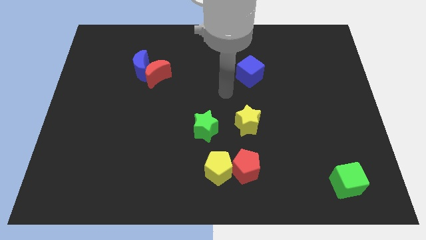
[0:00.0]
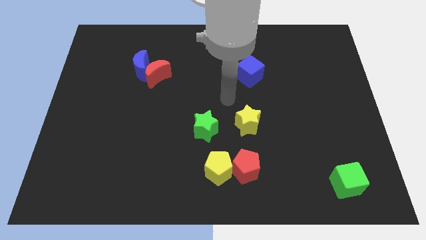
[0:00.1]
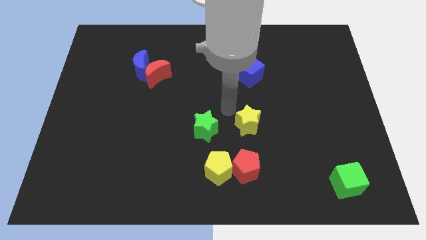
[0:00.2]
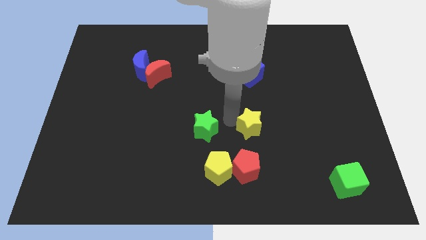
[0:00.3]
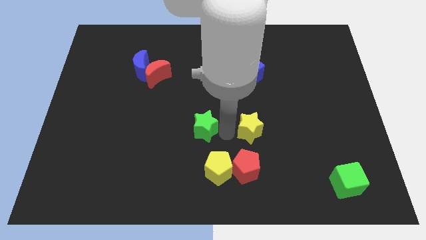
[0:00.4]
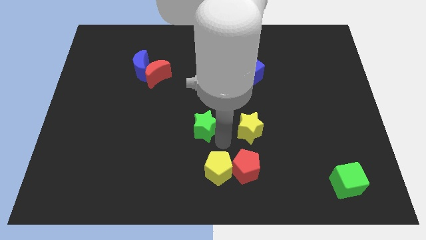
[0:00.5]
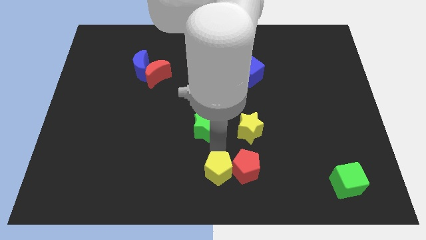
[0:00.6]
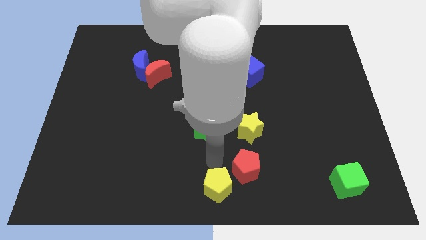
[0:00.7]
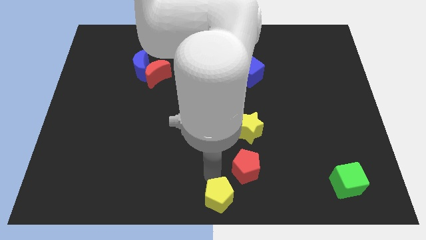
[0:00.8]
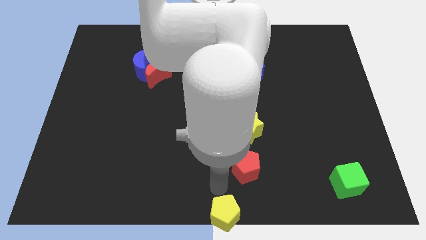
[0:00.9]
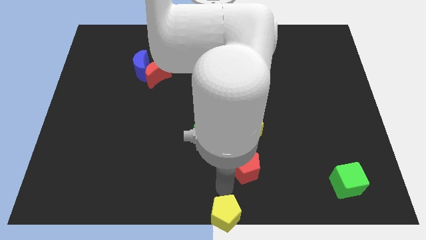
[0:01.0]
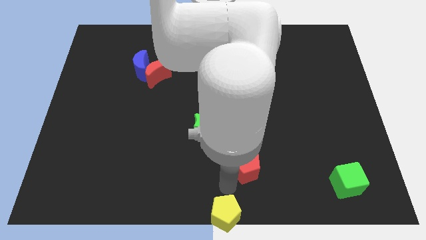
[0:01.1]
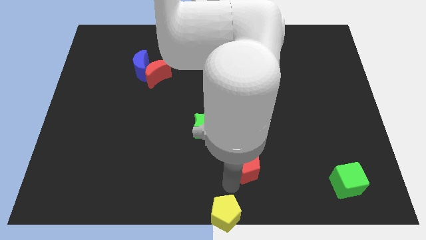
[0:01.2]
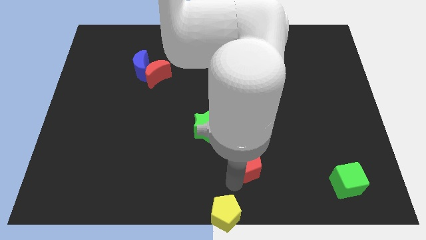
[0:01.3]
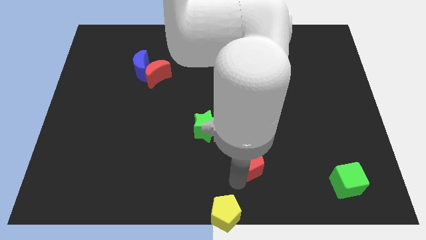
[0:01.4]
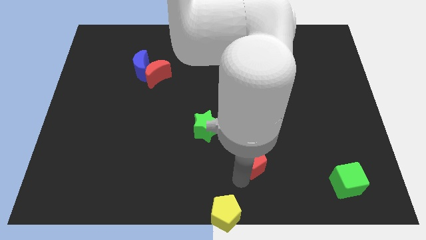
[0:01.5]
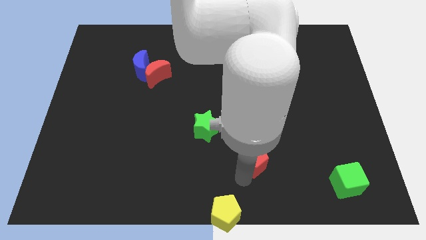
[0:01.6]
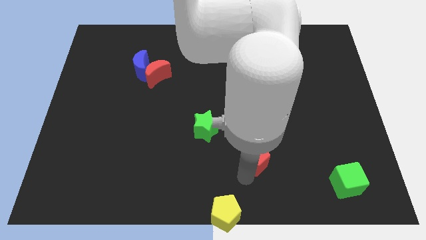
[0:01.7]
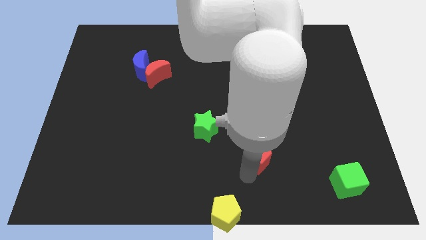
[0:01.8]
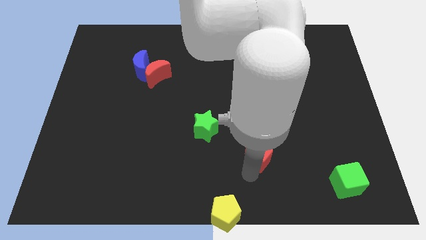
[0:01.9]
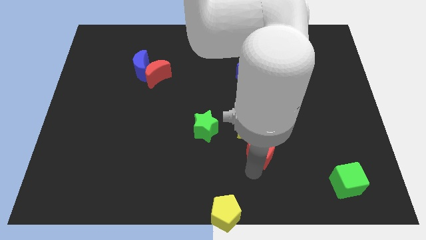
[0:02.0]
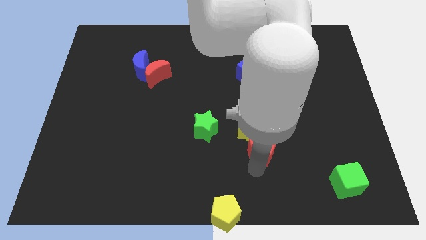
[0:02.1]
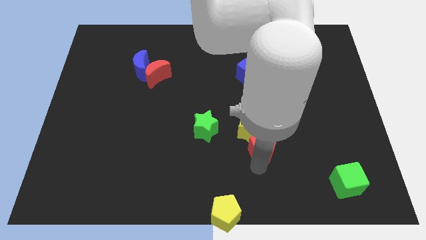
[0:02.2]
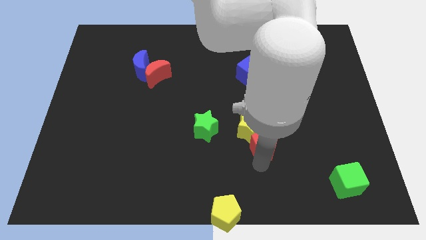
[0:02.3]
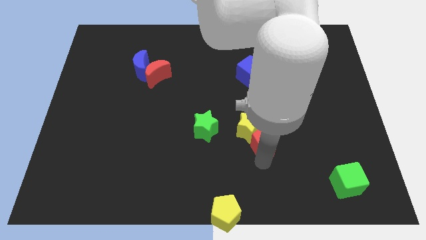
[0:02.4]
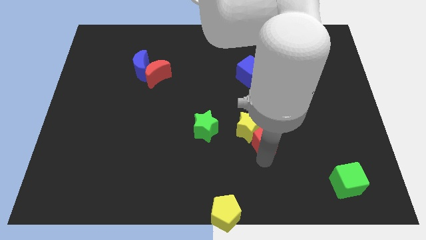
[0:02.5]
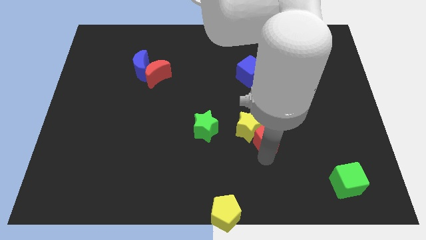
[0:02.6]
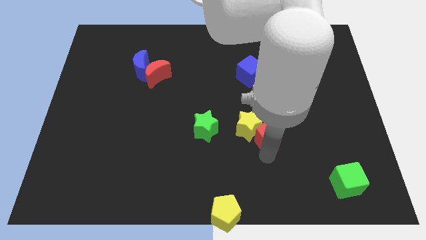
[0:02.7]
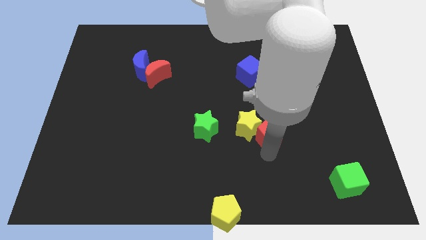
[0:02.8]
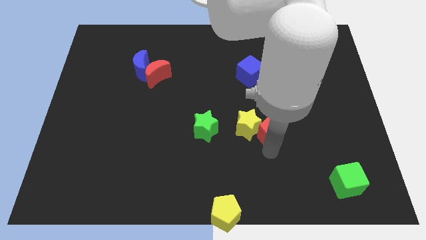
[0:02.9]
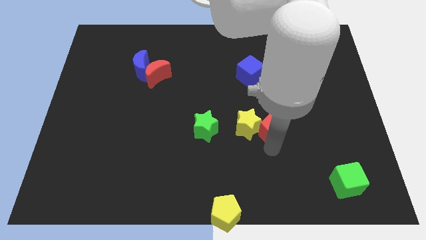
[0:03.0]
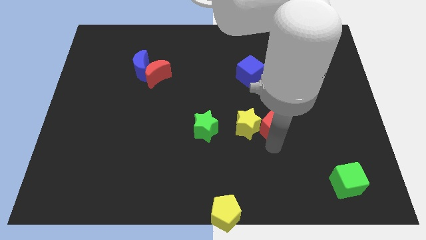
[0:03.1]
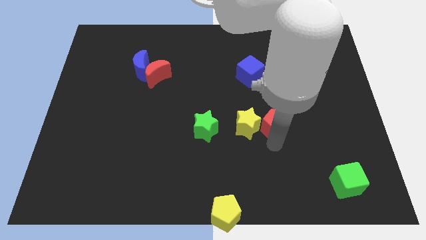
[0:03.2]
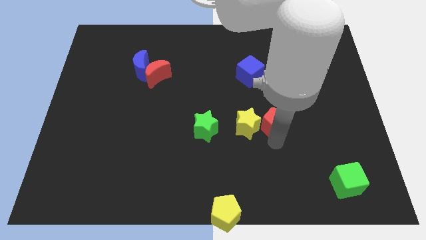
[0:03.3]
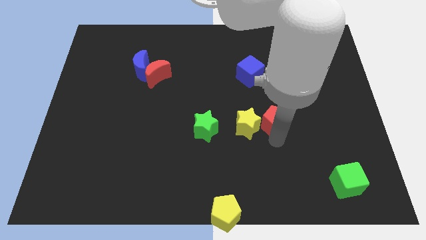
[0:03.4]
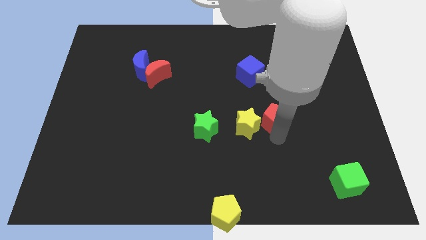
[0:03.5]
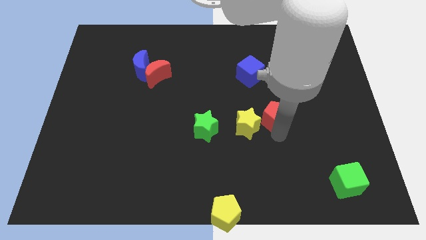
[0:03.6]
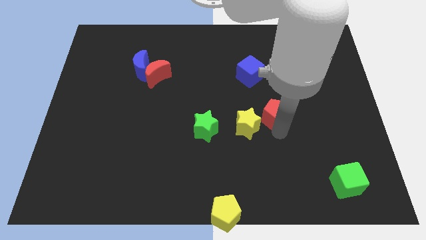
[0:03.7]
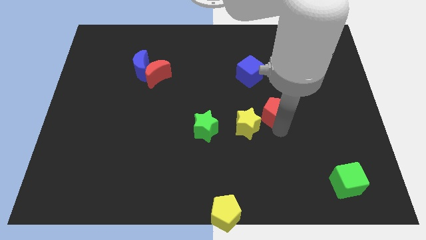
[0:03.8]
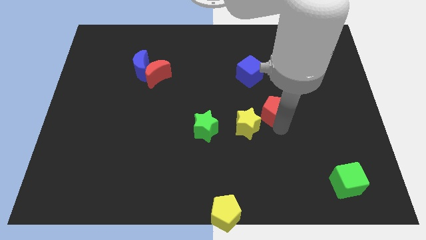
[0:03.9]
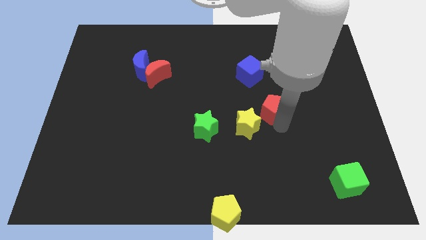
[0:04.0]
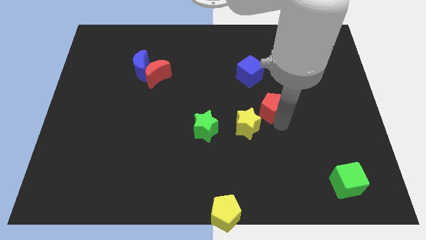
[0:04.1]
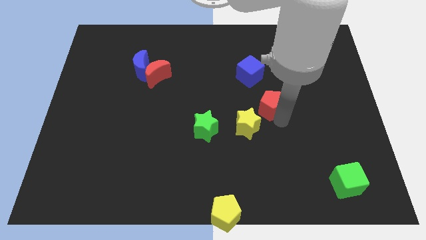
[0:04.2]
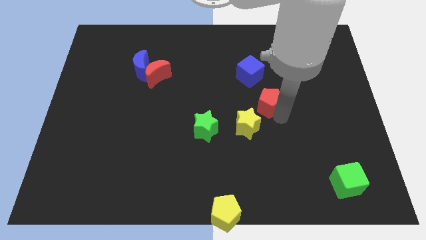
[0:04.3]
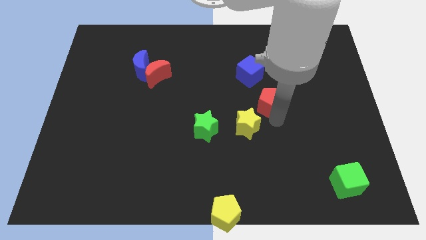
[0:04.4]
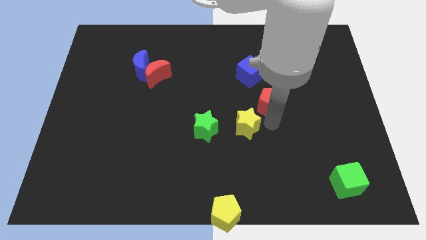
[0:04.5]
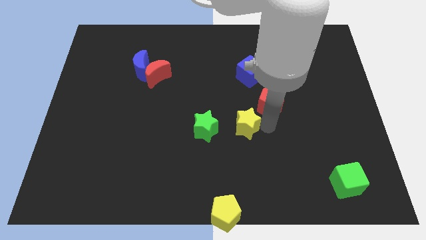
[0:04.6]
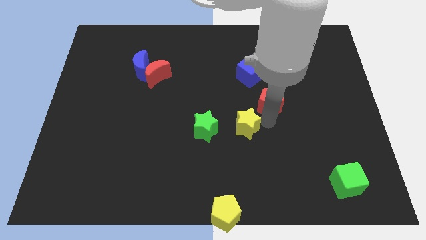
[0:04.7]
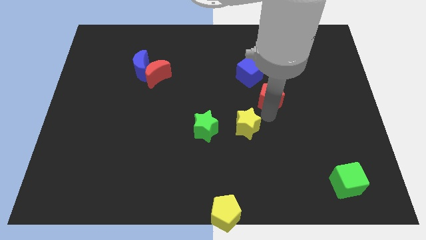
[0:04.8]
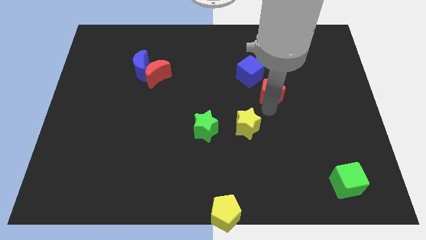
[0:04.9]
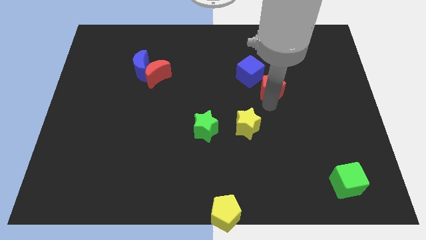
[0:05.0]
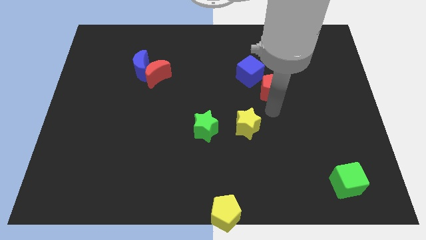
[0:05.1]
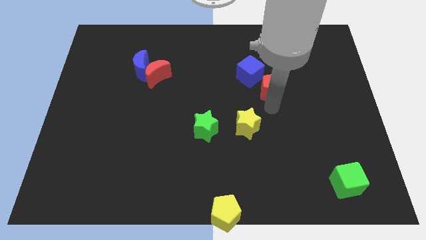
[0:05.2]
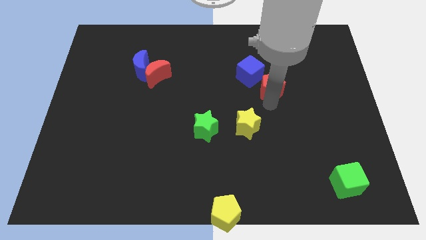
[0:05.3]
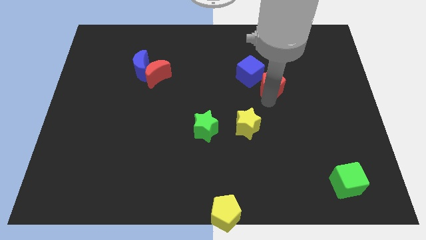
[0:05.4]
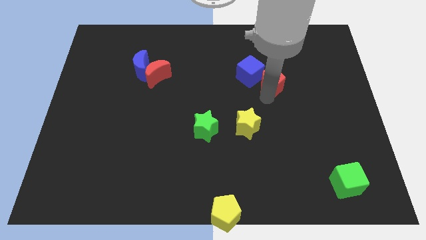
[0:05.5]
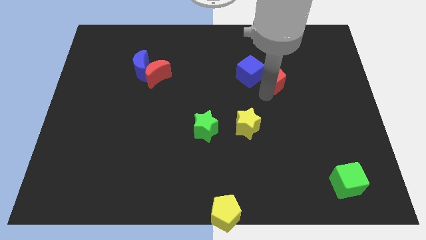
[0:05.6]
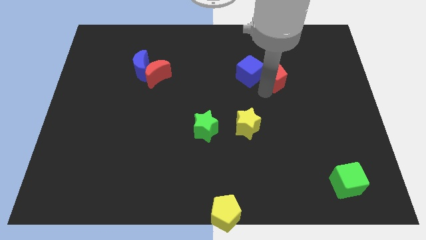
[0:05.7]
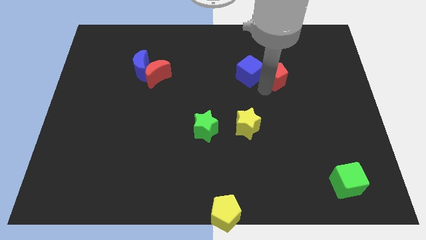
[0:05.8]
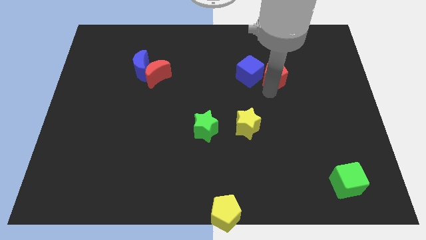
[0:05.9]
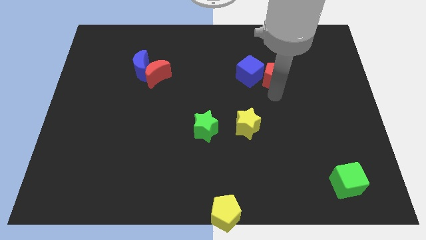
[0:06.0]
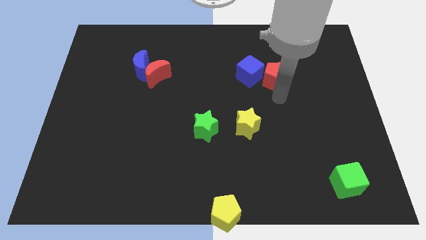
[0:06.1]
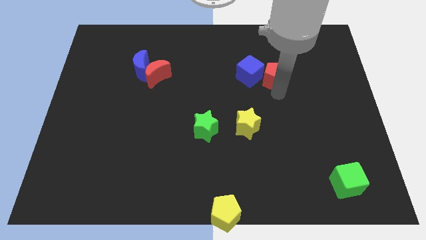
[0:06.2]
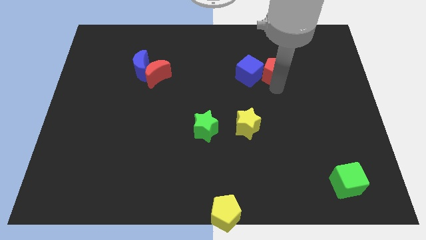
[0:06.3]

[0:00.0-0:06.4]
put the red pentagon to the top right of the blue cube

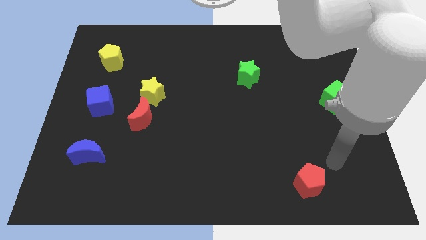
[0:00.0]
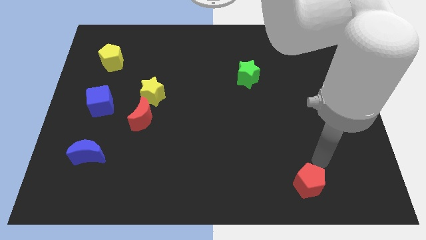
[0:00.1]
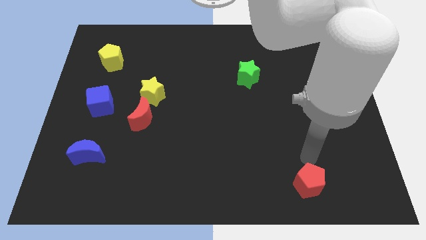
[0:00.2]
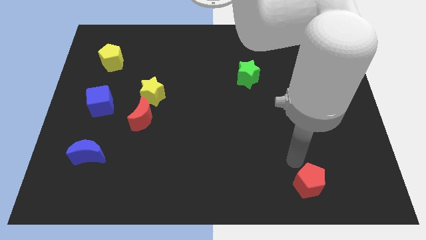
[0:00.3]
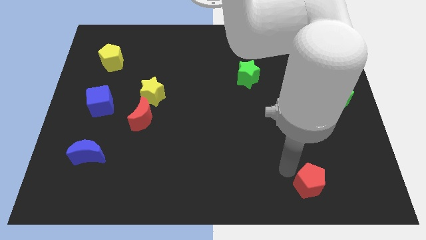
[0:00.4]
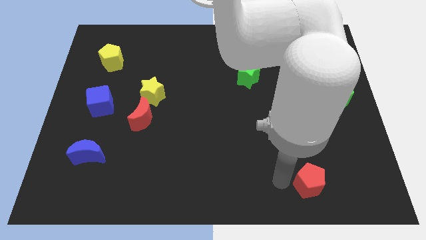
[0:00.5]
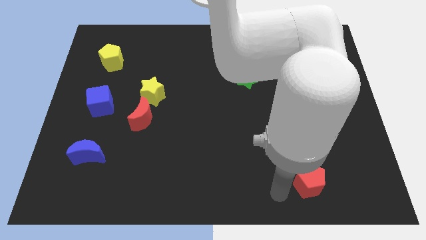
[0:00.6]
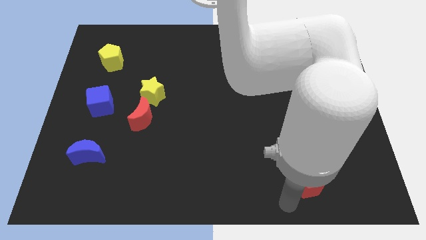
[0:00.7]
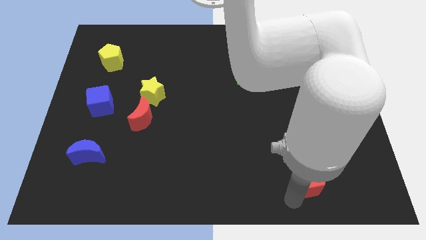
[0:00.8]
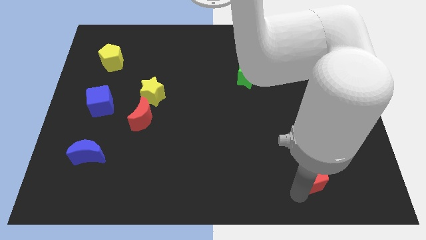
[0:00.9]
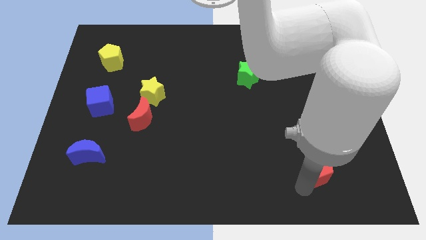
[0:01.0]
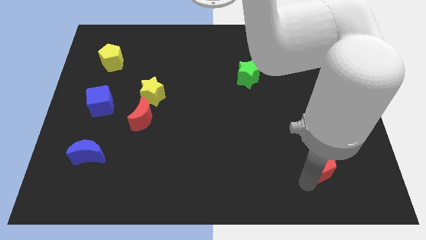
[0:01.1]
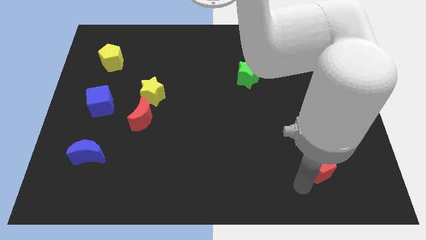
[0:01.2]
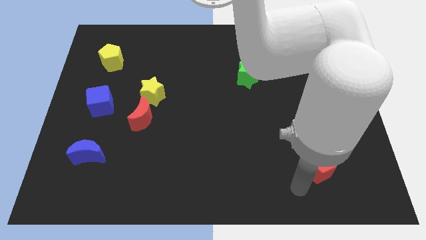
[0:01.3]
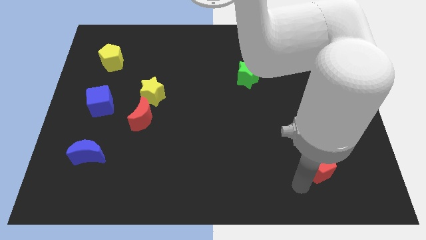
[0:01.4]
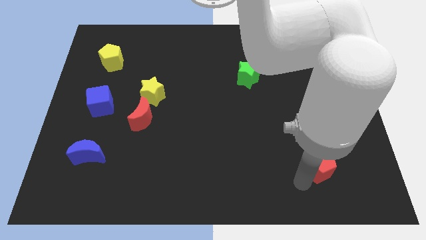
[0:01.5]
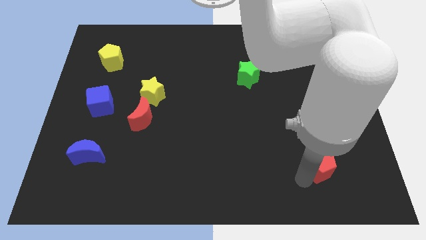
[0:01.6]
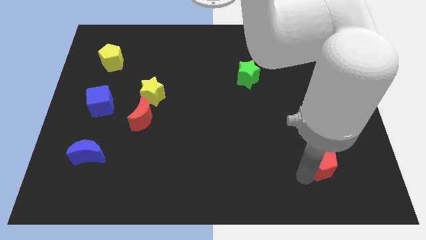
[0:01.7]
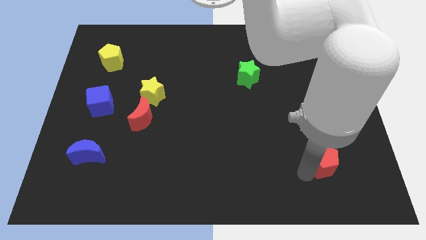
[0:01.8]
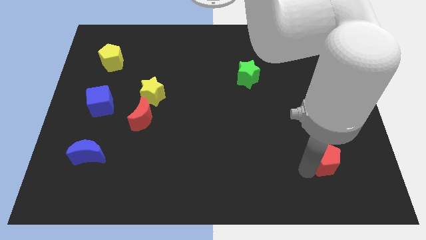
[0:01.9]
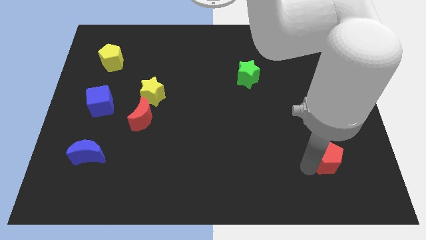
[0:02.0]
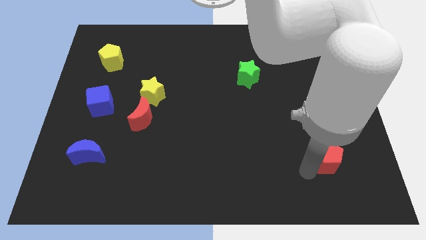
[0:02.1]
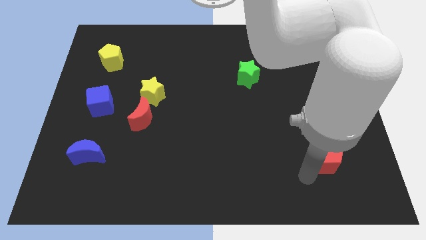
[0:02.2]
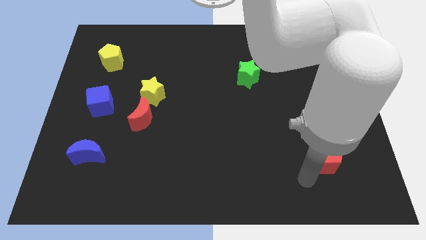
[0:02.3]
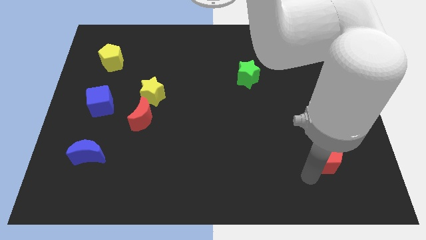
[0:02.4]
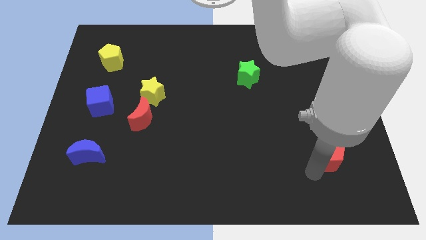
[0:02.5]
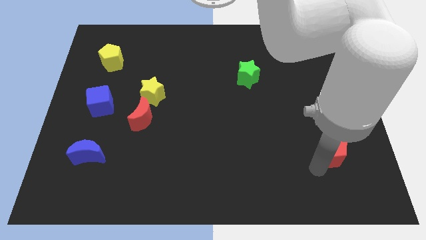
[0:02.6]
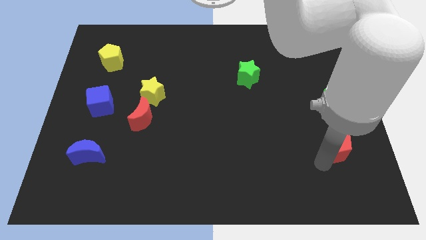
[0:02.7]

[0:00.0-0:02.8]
put the red pentagon to the bottom of the green cube
